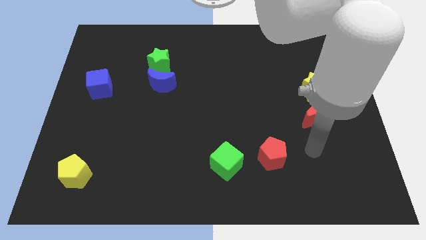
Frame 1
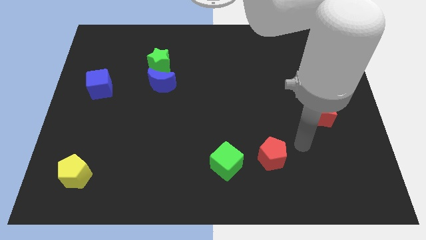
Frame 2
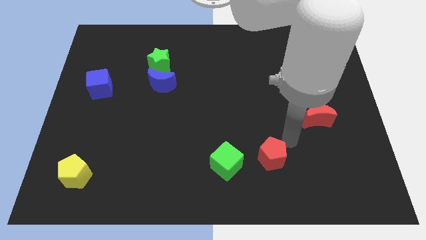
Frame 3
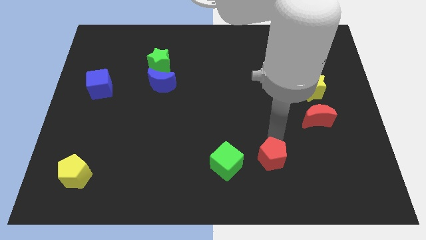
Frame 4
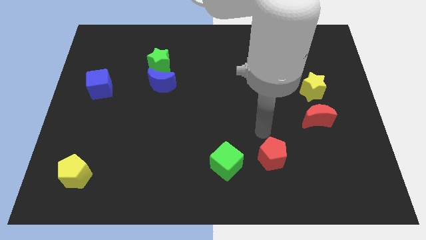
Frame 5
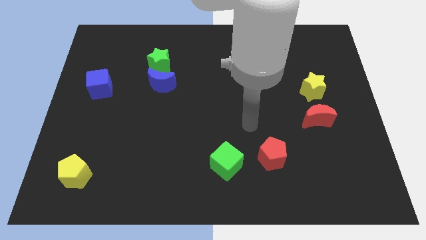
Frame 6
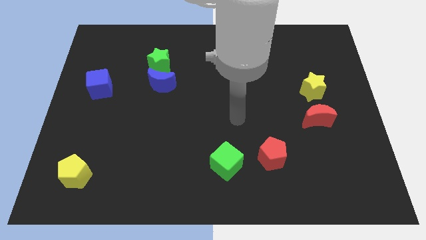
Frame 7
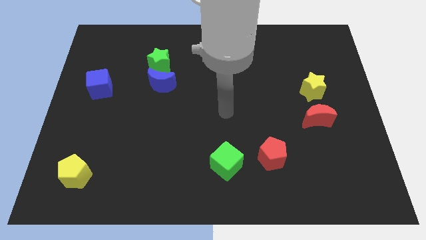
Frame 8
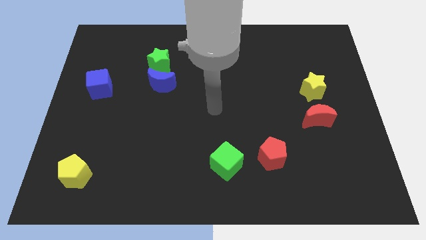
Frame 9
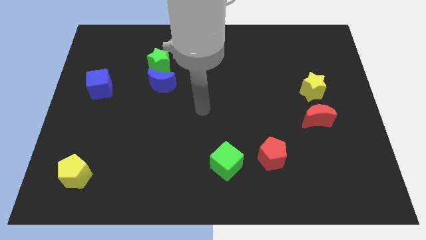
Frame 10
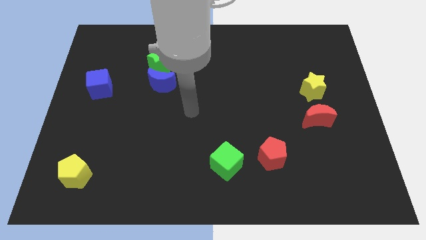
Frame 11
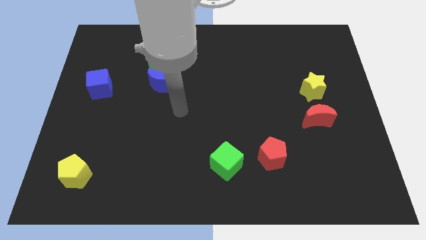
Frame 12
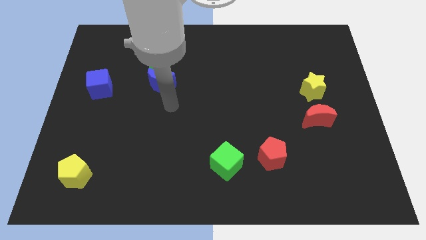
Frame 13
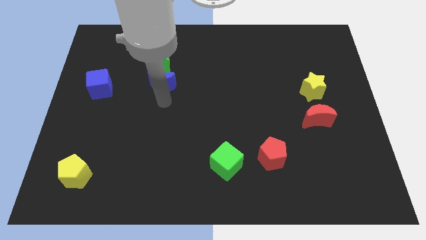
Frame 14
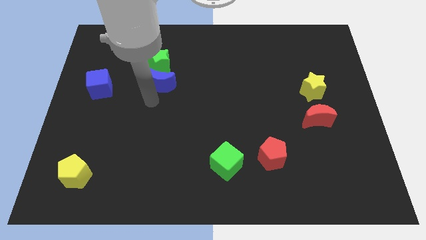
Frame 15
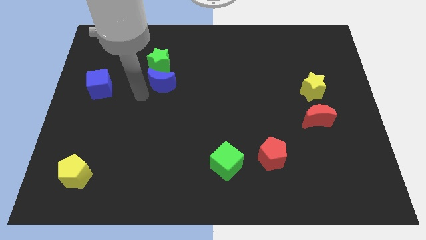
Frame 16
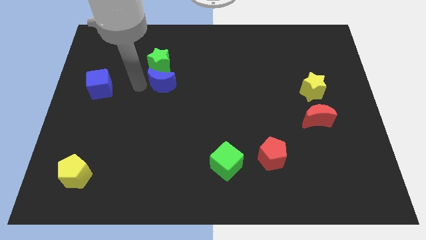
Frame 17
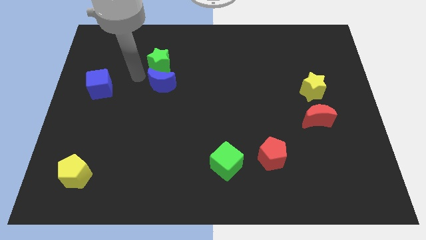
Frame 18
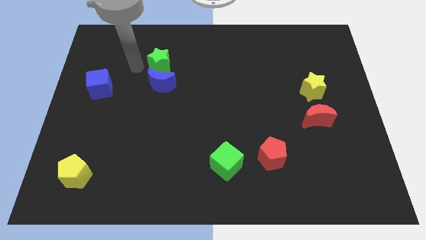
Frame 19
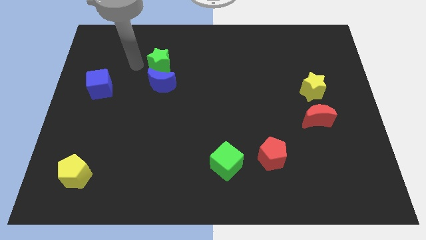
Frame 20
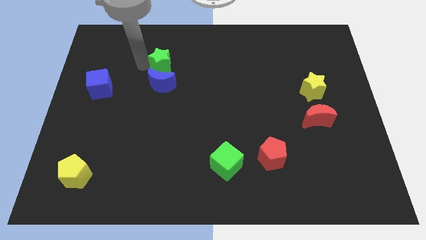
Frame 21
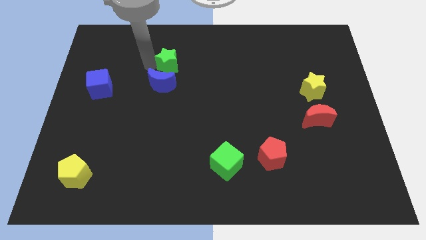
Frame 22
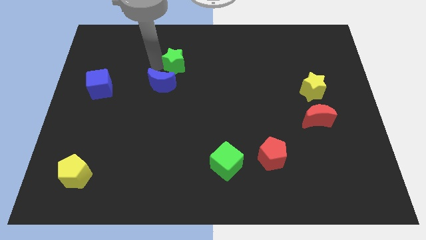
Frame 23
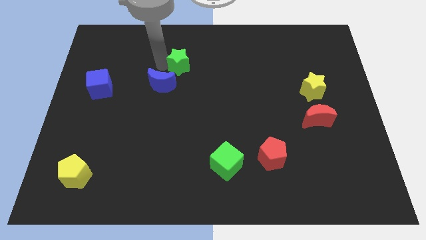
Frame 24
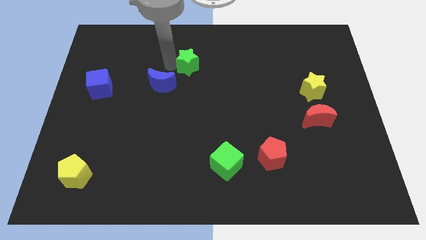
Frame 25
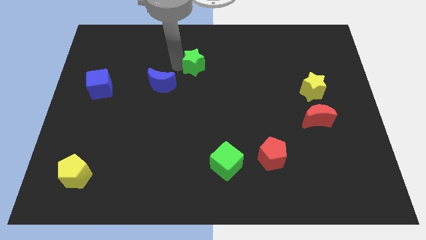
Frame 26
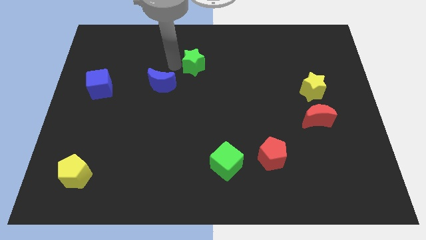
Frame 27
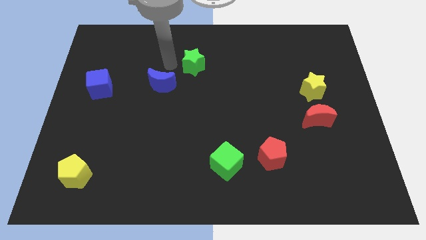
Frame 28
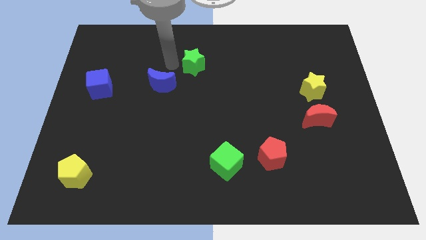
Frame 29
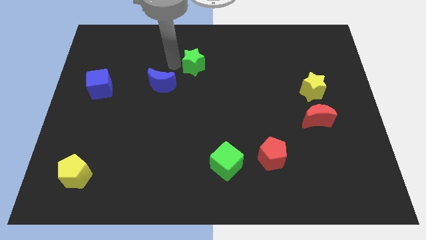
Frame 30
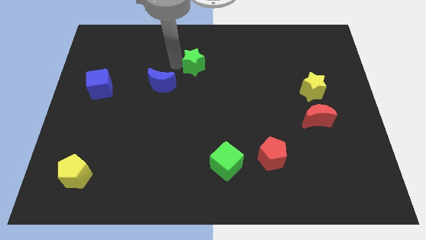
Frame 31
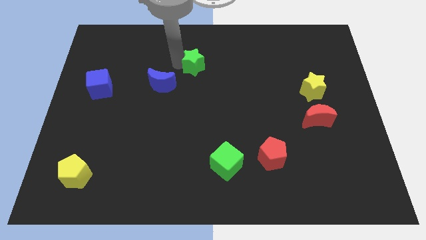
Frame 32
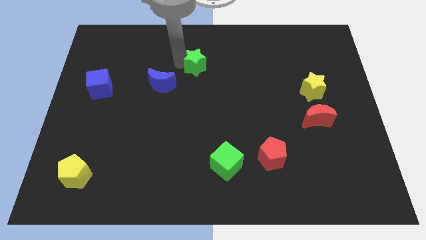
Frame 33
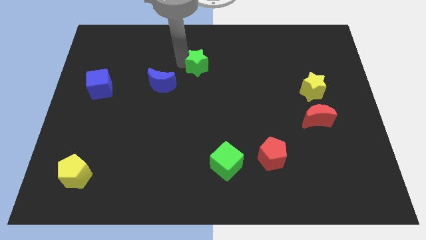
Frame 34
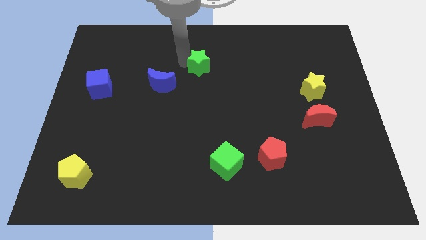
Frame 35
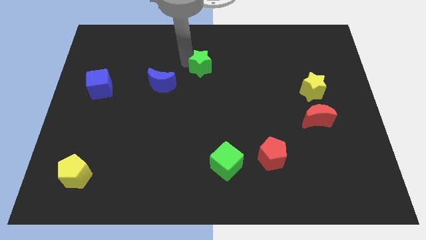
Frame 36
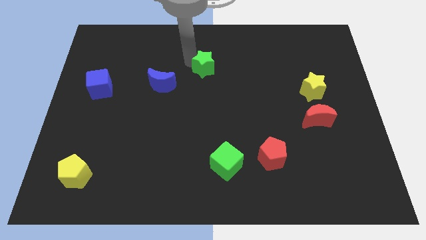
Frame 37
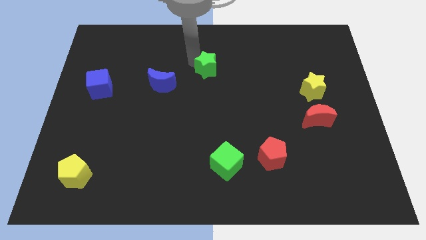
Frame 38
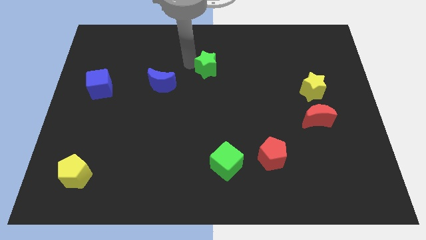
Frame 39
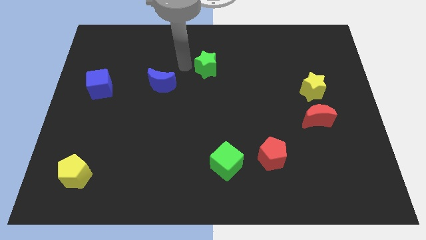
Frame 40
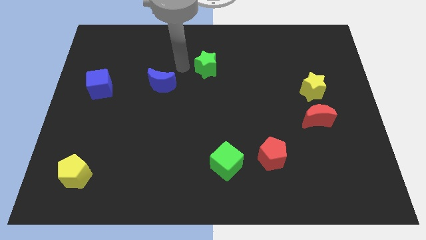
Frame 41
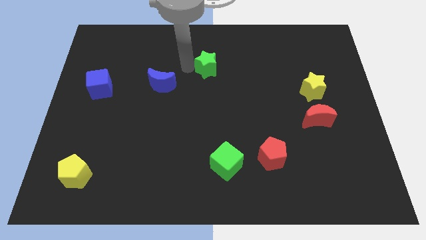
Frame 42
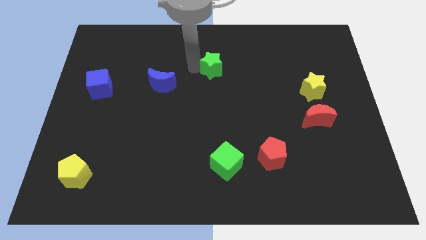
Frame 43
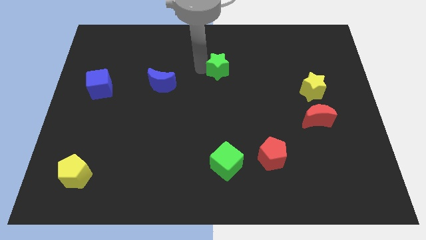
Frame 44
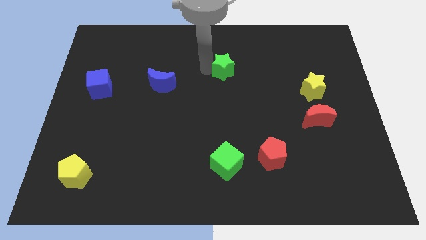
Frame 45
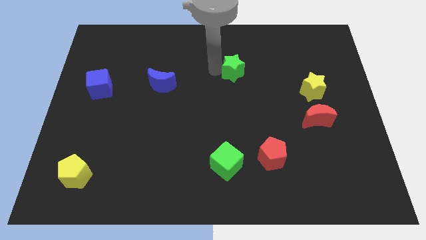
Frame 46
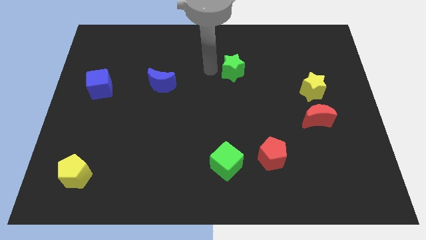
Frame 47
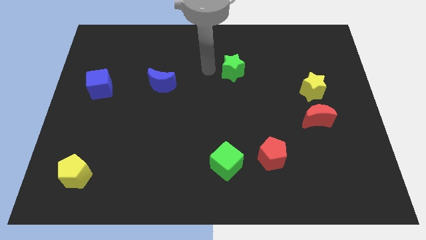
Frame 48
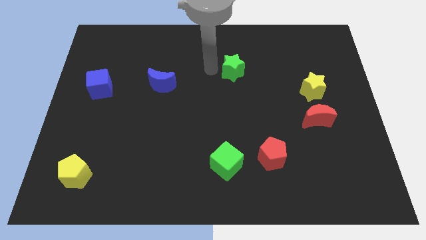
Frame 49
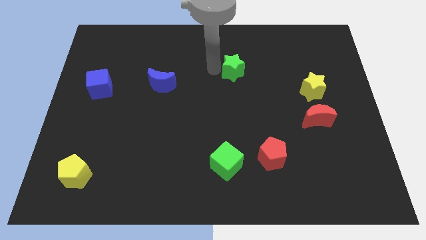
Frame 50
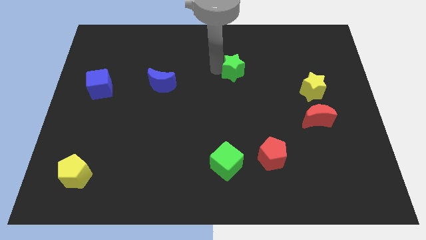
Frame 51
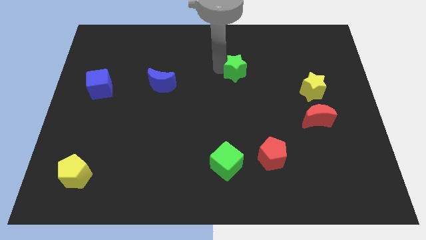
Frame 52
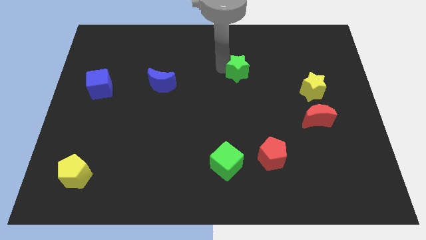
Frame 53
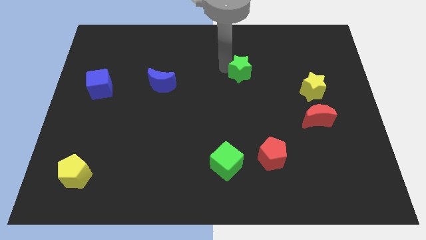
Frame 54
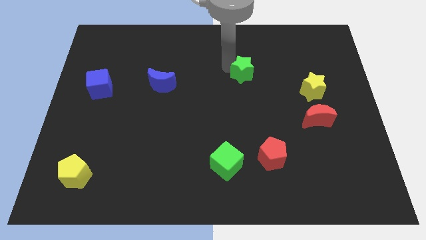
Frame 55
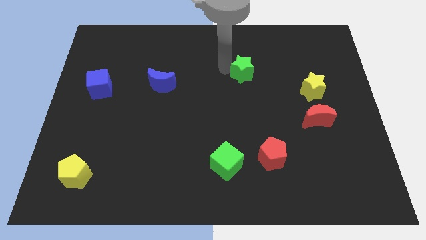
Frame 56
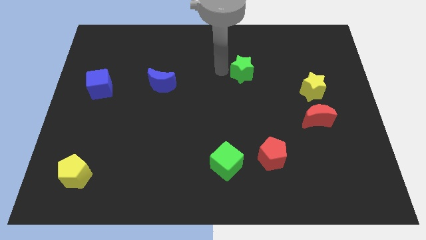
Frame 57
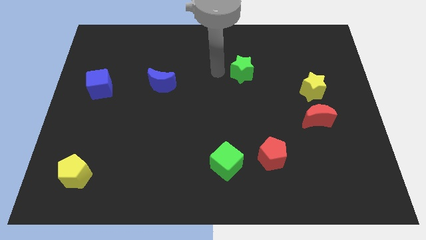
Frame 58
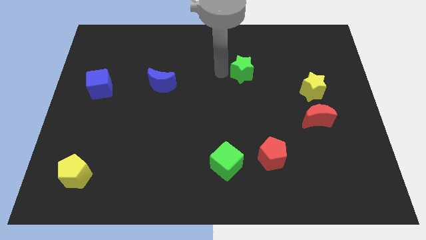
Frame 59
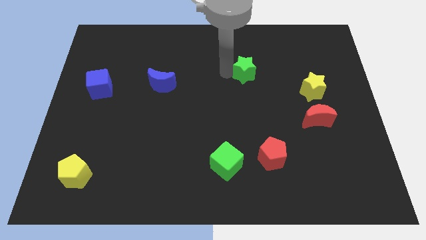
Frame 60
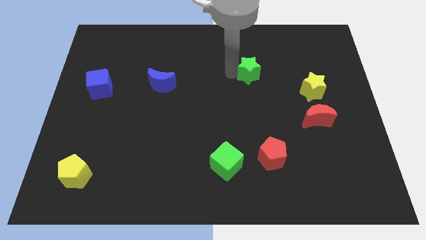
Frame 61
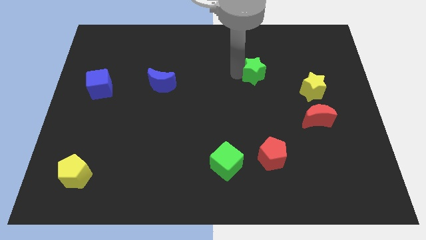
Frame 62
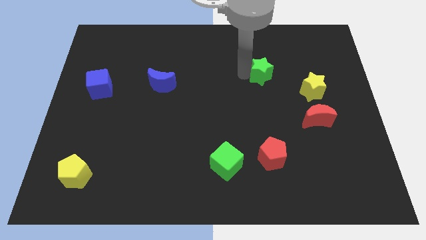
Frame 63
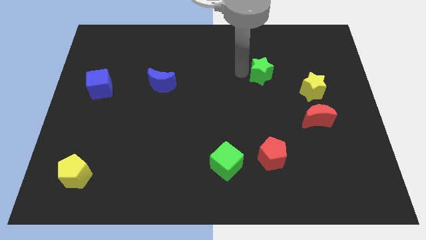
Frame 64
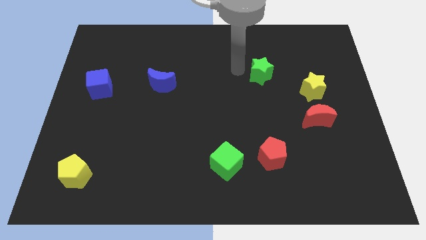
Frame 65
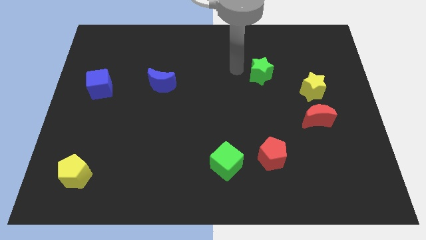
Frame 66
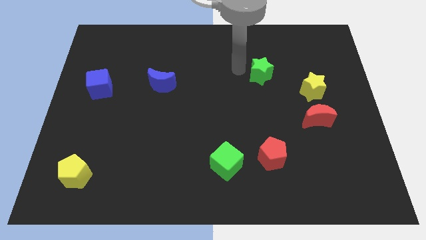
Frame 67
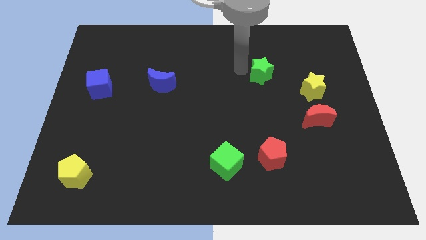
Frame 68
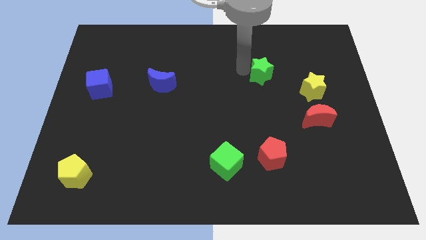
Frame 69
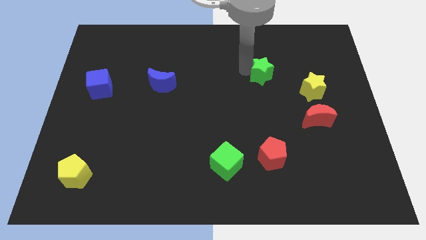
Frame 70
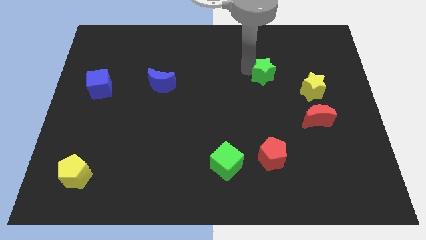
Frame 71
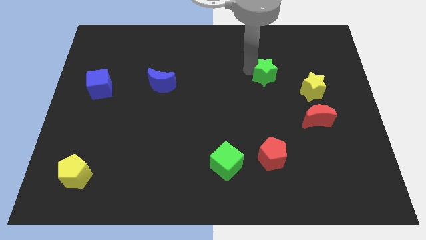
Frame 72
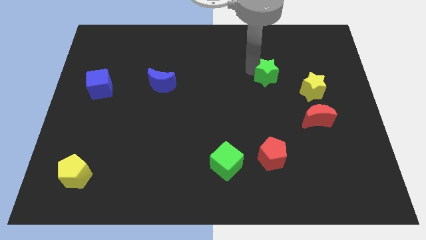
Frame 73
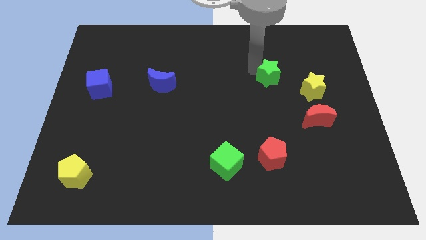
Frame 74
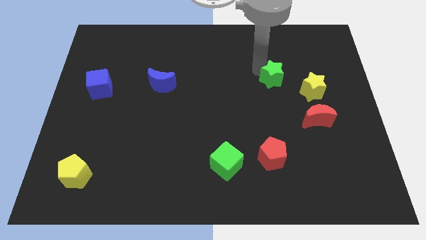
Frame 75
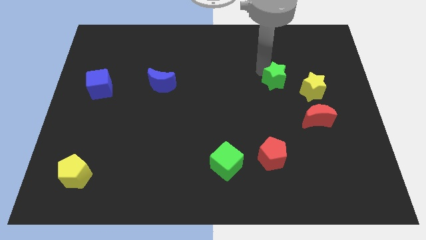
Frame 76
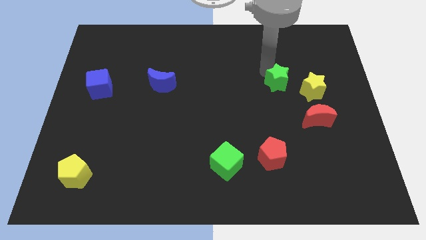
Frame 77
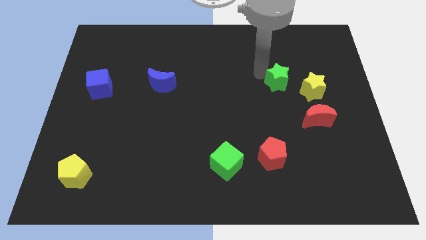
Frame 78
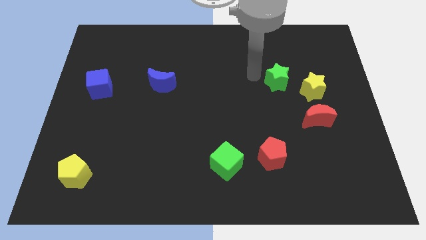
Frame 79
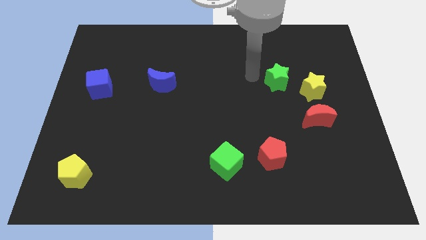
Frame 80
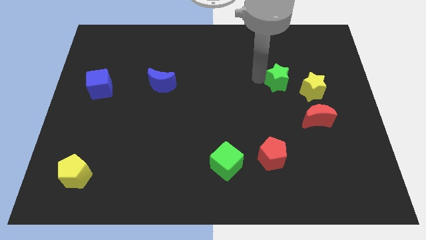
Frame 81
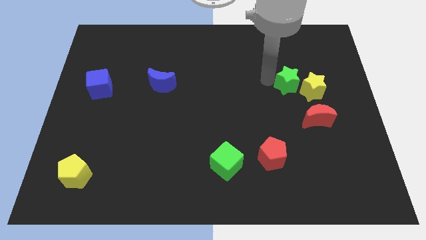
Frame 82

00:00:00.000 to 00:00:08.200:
push the green star towards the yellow star
